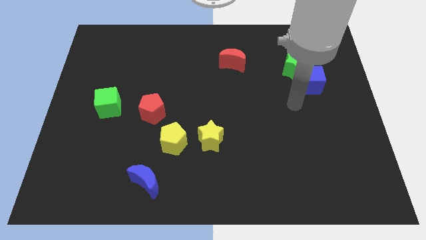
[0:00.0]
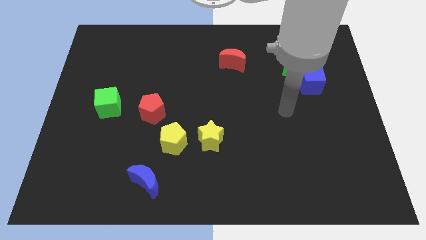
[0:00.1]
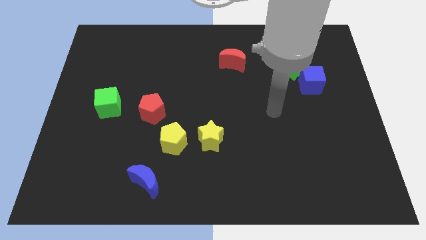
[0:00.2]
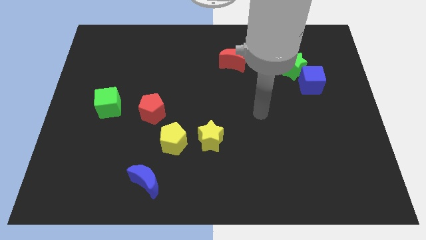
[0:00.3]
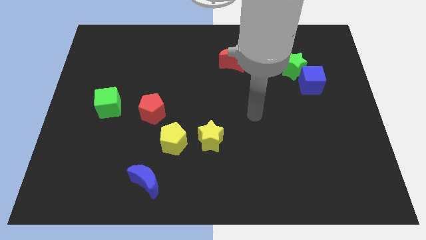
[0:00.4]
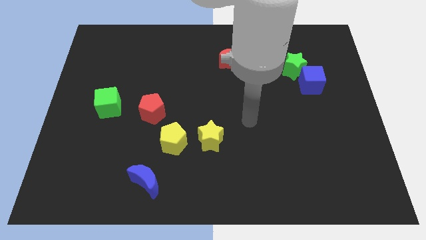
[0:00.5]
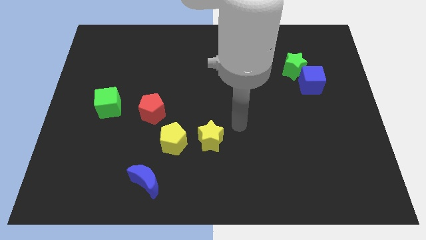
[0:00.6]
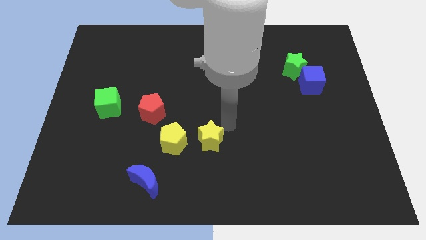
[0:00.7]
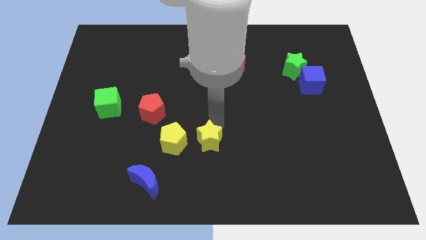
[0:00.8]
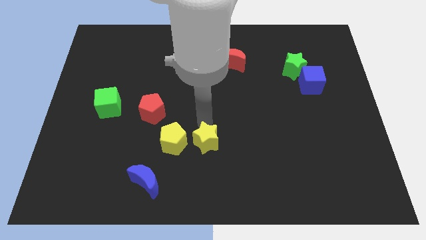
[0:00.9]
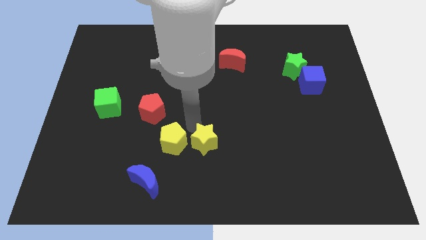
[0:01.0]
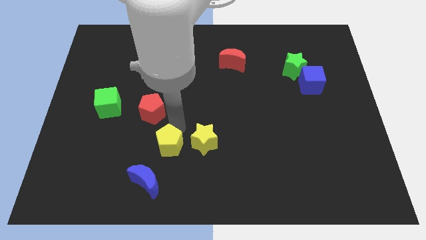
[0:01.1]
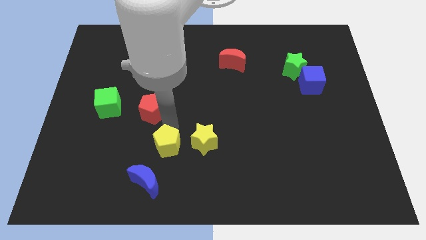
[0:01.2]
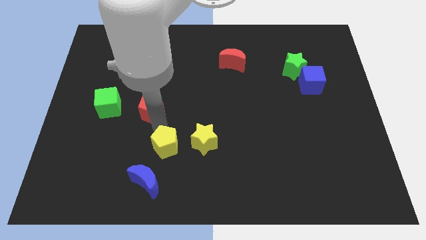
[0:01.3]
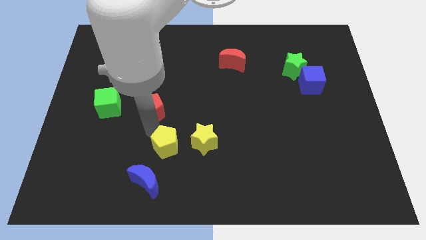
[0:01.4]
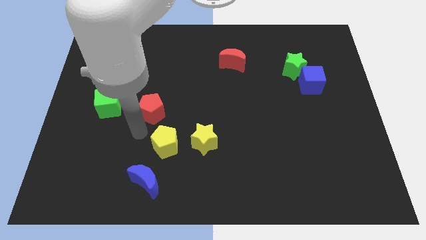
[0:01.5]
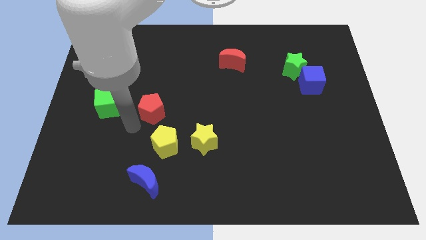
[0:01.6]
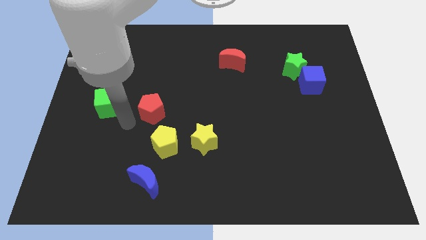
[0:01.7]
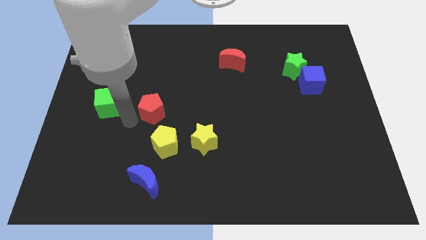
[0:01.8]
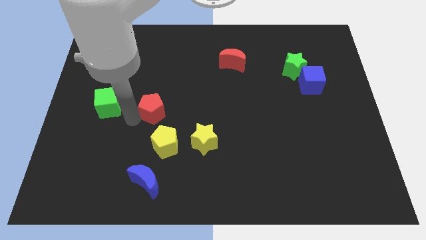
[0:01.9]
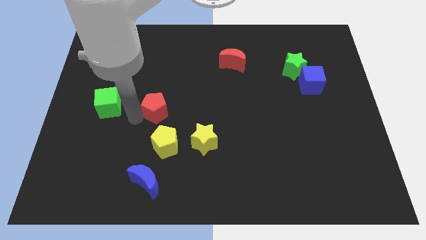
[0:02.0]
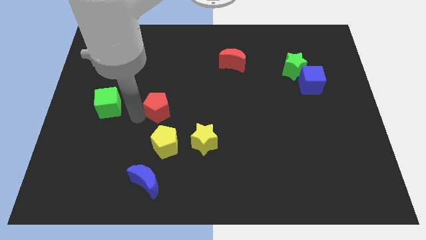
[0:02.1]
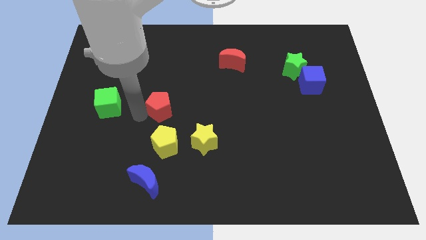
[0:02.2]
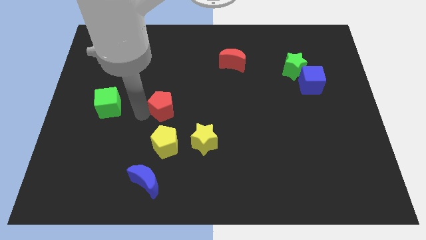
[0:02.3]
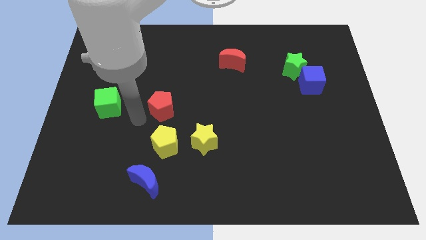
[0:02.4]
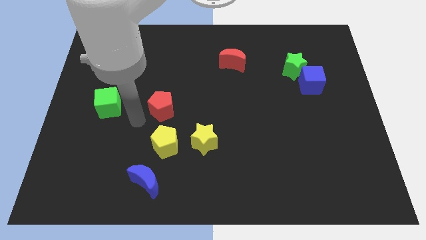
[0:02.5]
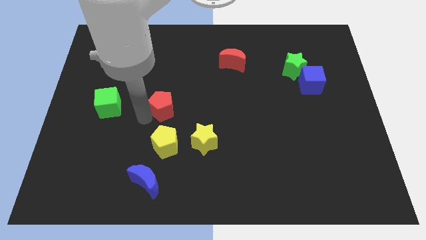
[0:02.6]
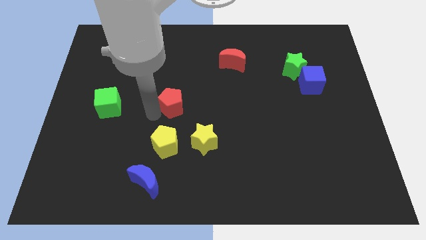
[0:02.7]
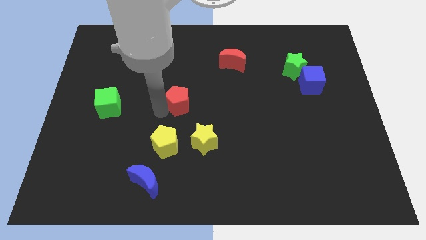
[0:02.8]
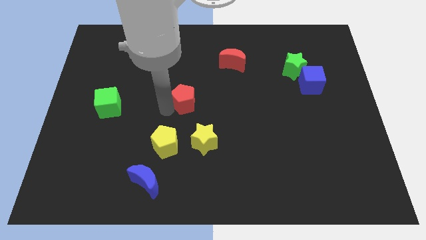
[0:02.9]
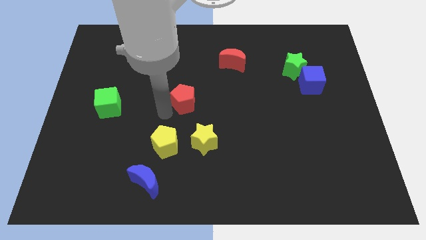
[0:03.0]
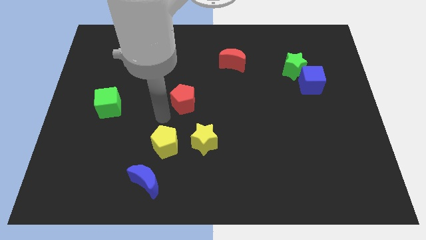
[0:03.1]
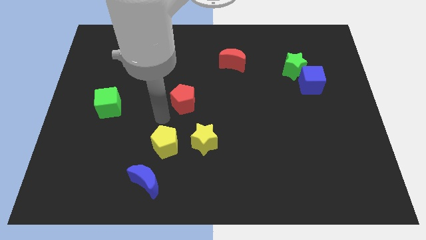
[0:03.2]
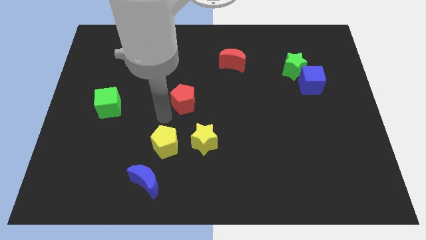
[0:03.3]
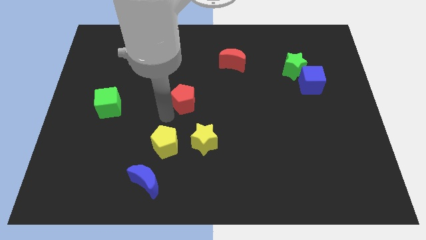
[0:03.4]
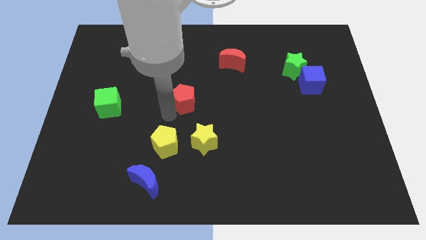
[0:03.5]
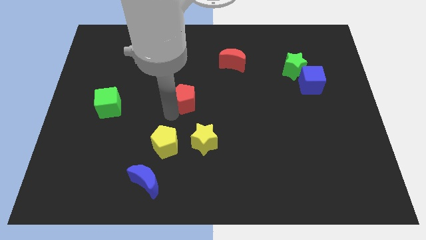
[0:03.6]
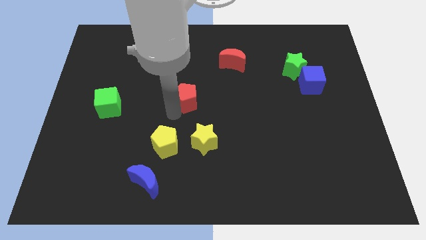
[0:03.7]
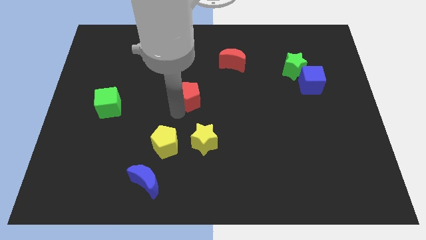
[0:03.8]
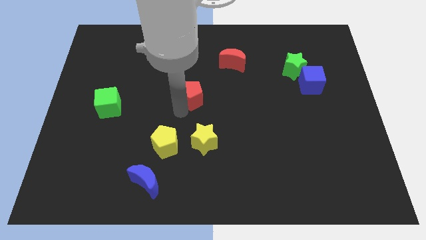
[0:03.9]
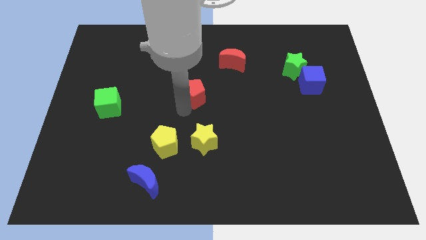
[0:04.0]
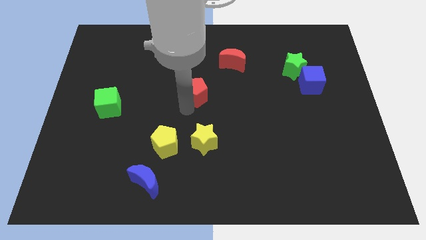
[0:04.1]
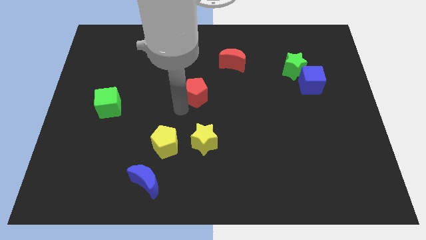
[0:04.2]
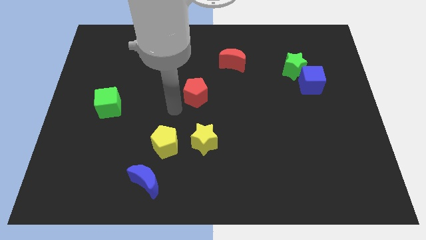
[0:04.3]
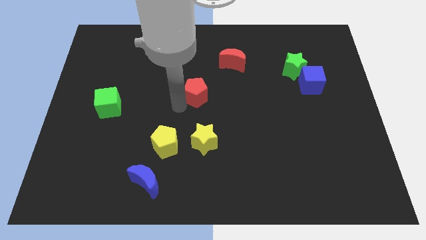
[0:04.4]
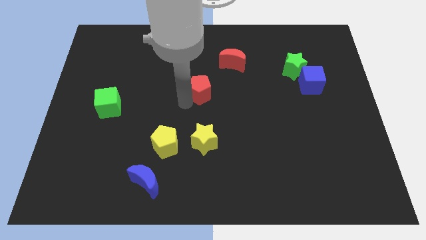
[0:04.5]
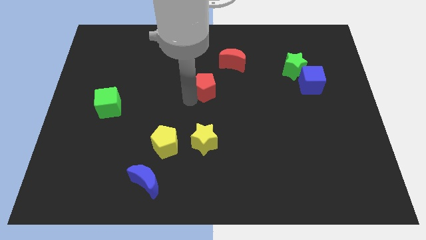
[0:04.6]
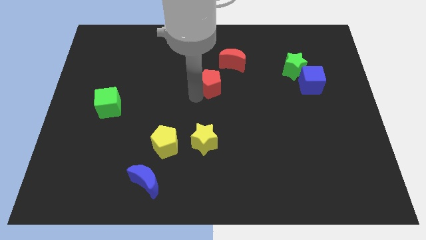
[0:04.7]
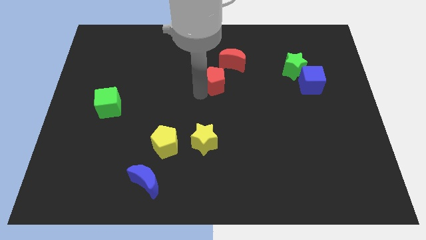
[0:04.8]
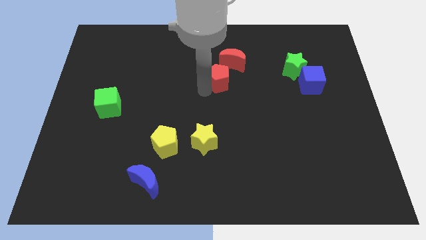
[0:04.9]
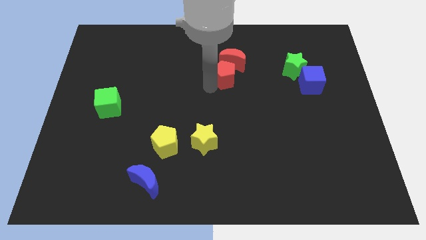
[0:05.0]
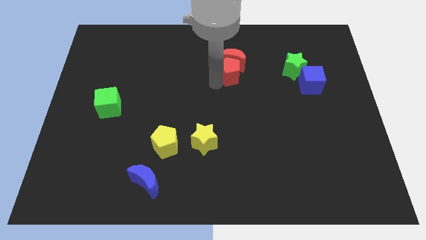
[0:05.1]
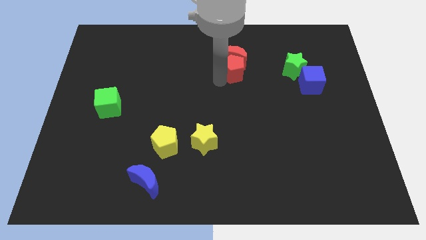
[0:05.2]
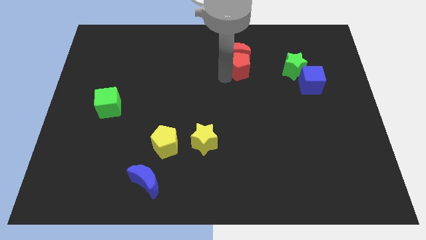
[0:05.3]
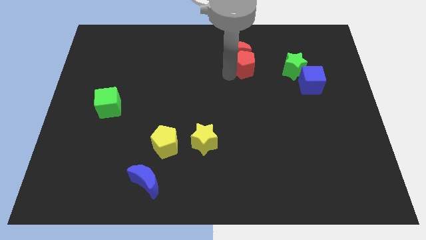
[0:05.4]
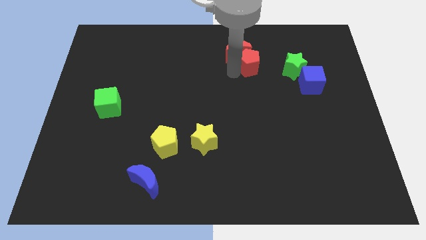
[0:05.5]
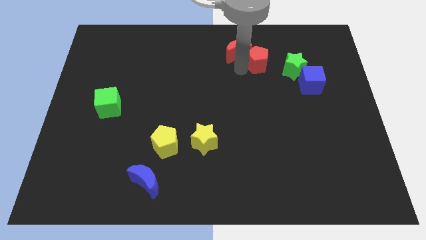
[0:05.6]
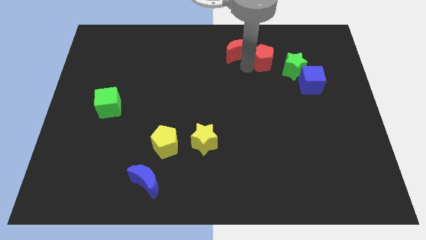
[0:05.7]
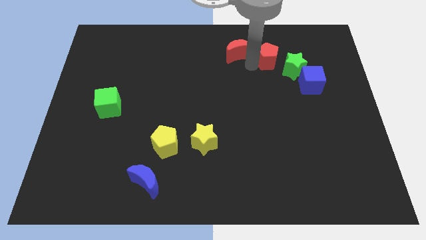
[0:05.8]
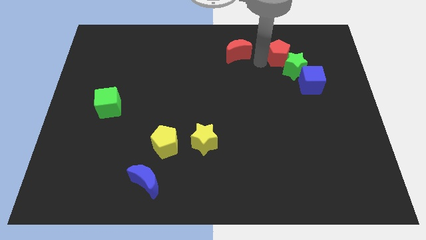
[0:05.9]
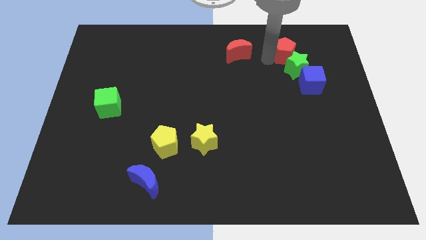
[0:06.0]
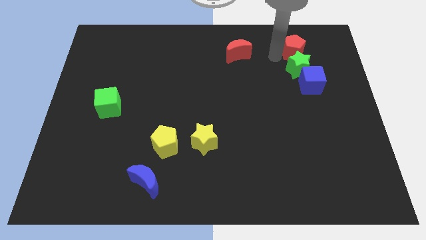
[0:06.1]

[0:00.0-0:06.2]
move the red pentagon diagonally up and to the right of the green star
